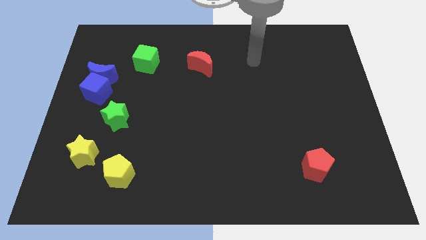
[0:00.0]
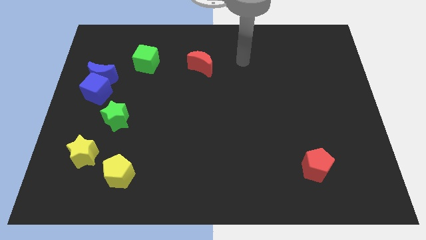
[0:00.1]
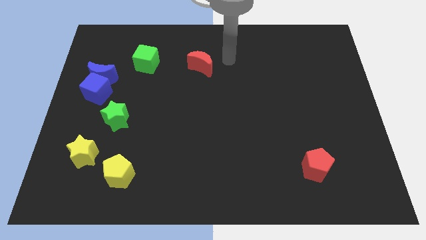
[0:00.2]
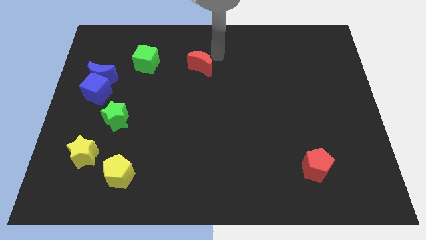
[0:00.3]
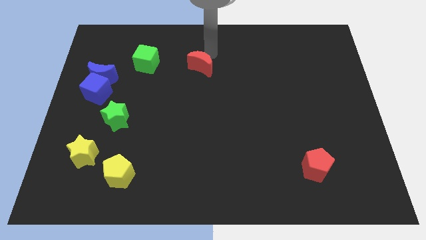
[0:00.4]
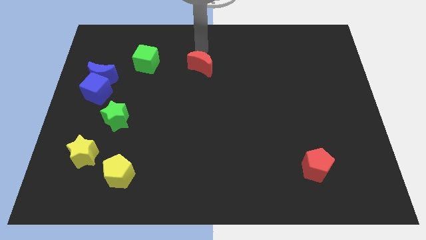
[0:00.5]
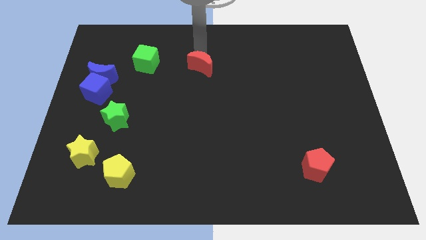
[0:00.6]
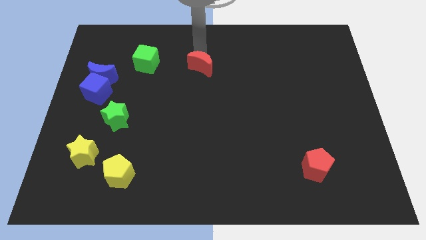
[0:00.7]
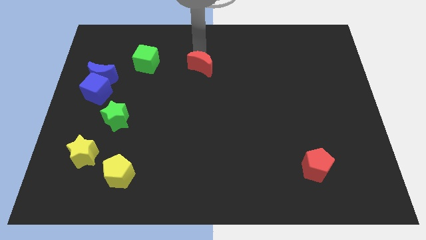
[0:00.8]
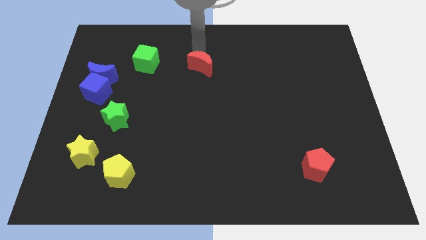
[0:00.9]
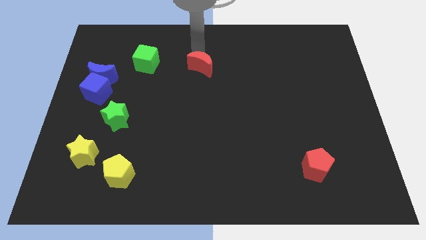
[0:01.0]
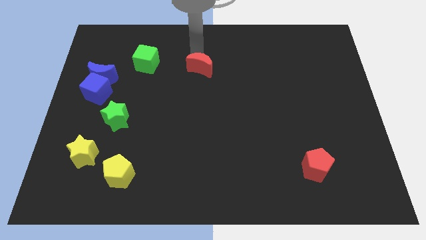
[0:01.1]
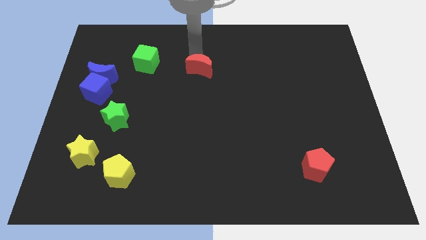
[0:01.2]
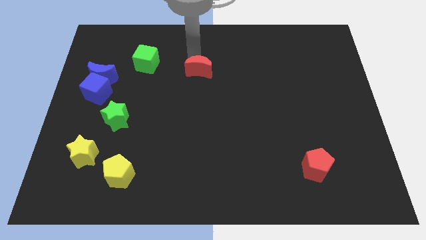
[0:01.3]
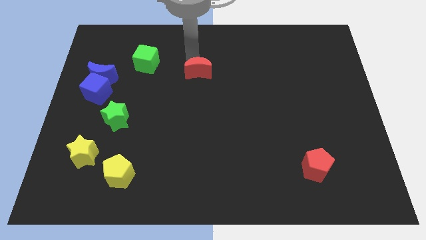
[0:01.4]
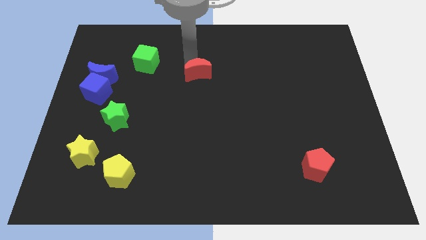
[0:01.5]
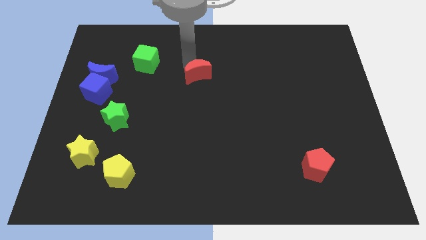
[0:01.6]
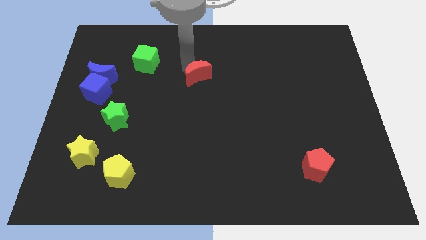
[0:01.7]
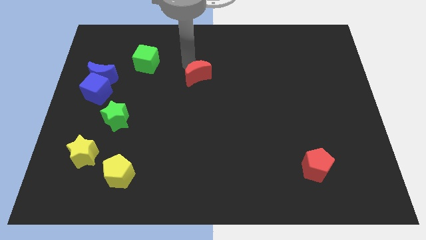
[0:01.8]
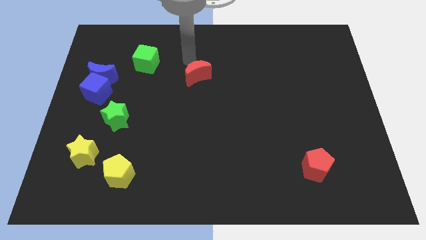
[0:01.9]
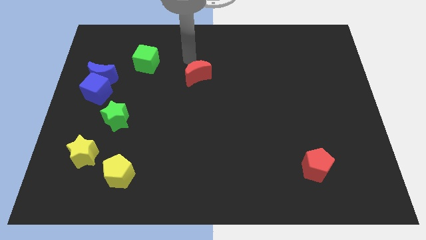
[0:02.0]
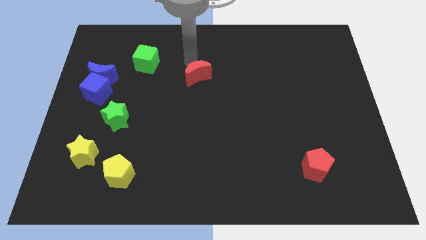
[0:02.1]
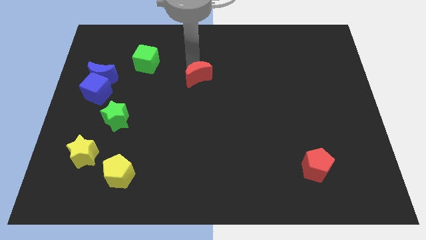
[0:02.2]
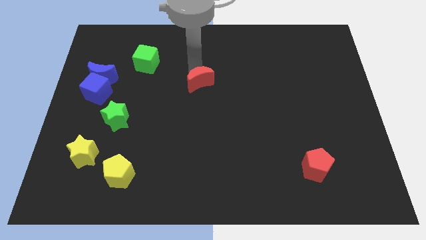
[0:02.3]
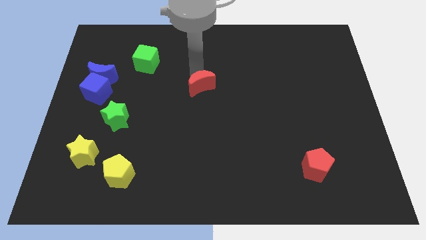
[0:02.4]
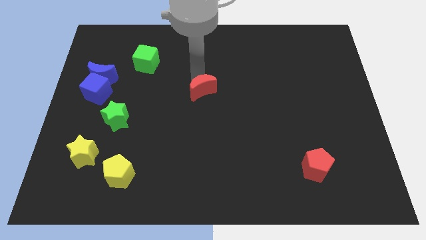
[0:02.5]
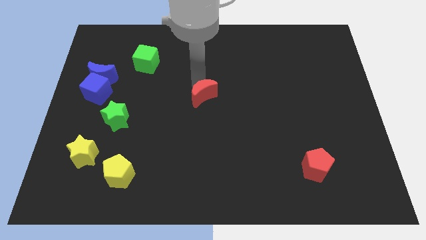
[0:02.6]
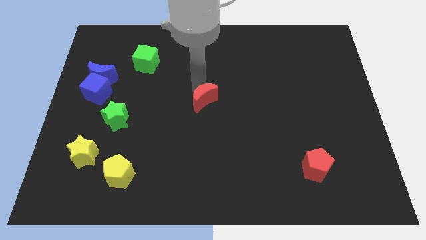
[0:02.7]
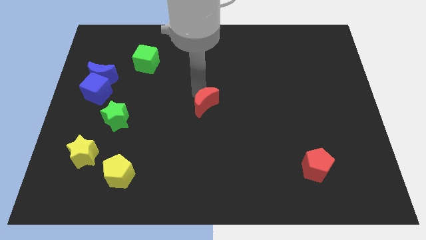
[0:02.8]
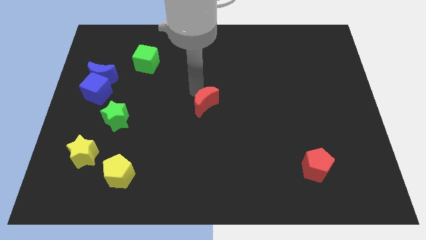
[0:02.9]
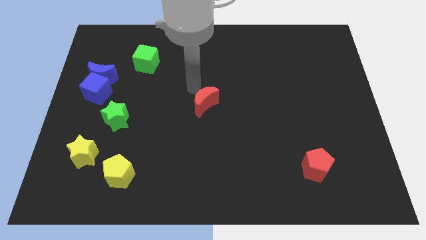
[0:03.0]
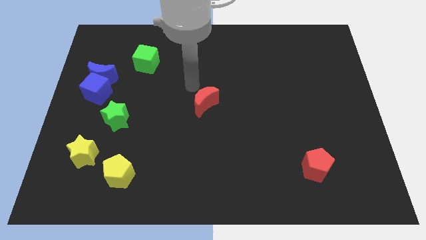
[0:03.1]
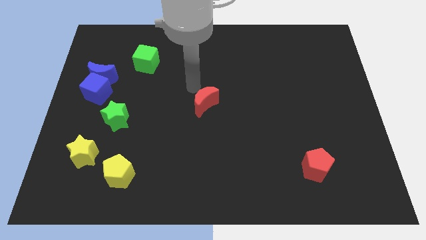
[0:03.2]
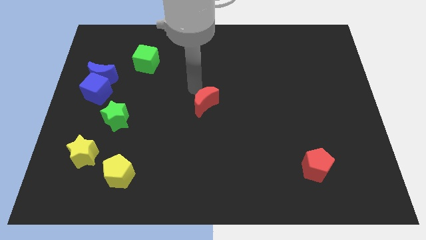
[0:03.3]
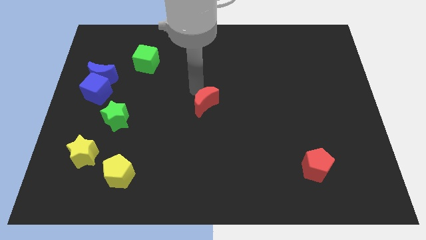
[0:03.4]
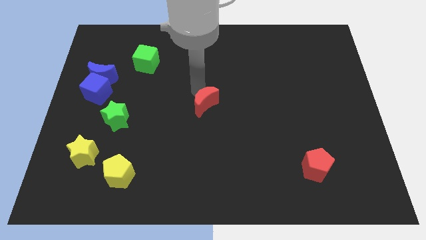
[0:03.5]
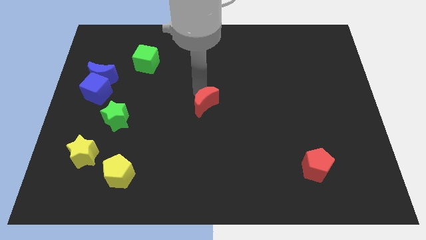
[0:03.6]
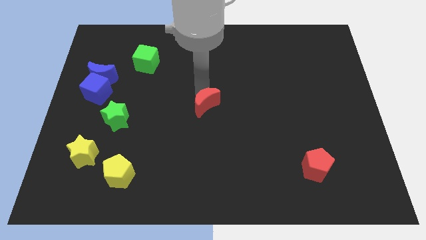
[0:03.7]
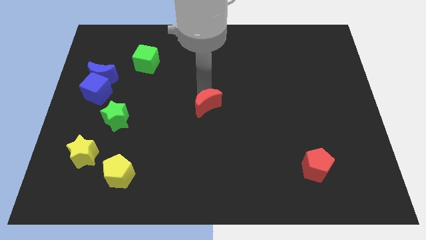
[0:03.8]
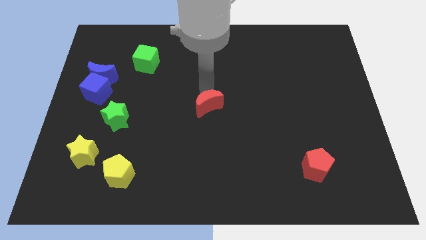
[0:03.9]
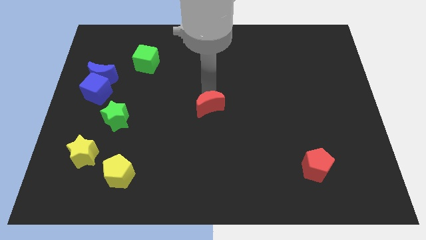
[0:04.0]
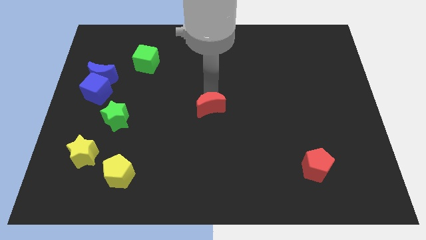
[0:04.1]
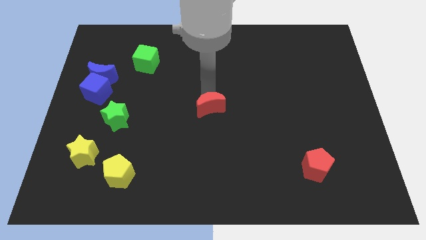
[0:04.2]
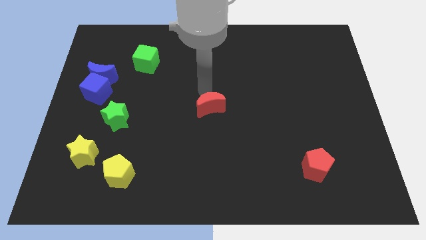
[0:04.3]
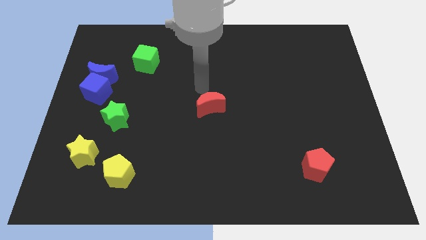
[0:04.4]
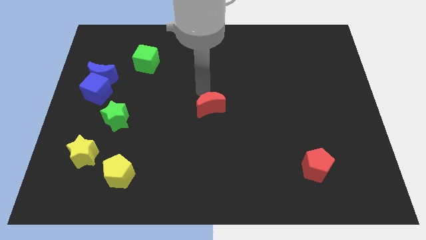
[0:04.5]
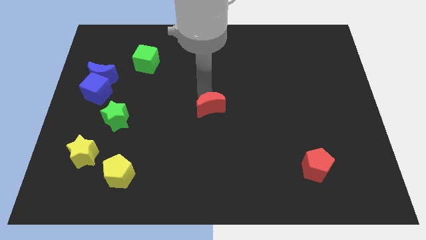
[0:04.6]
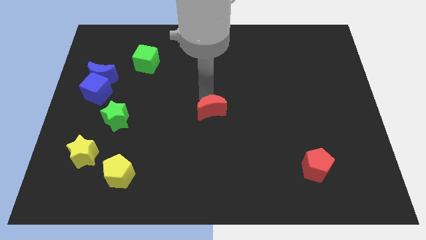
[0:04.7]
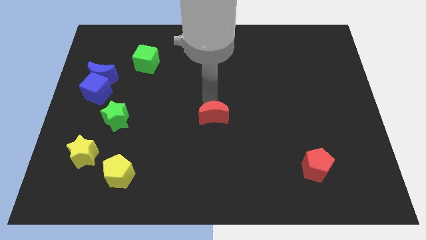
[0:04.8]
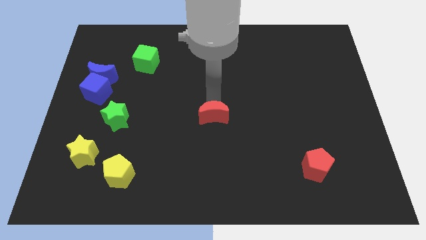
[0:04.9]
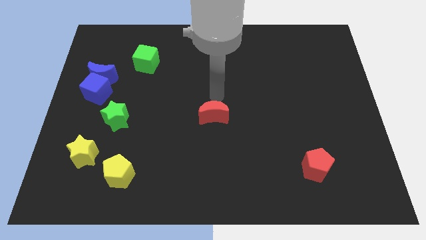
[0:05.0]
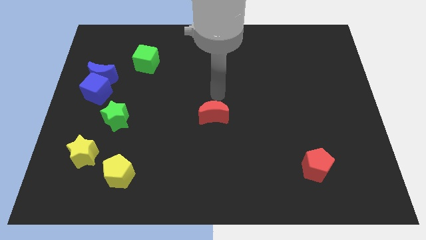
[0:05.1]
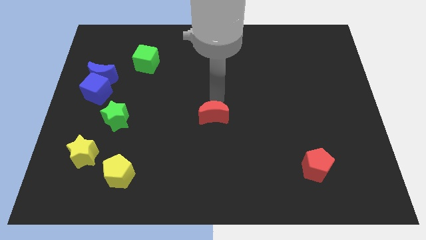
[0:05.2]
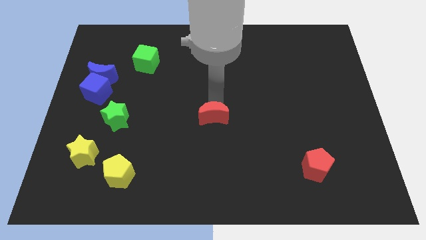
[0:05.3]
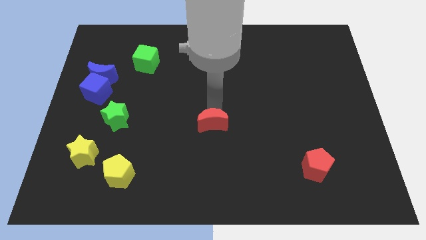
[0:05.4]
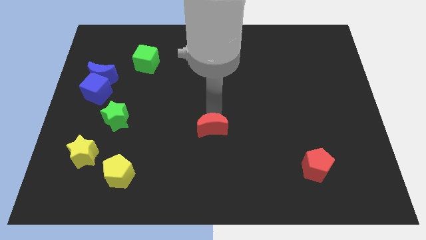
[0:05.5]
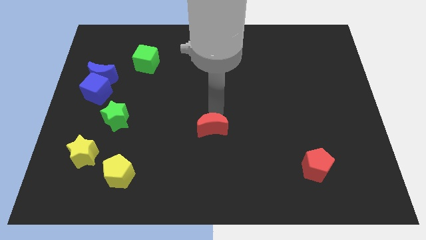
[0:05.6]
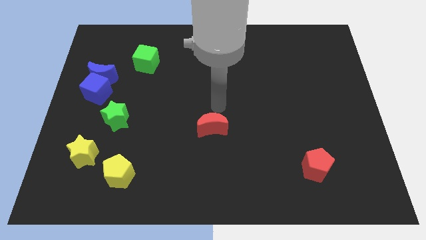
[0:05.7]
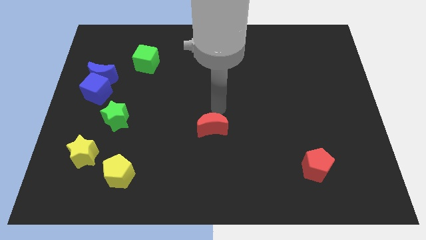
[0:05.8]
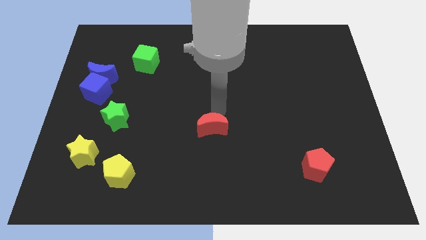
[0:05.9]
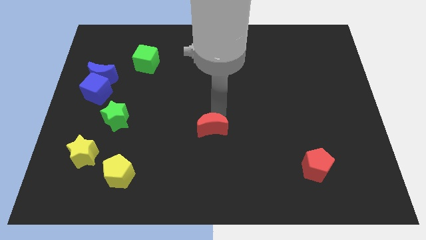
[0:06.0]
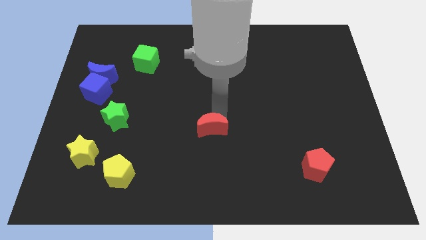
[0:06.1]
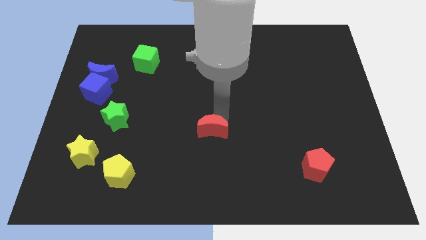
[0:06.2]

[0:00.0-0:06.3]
slide the red moon downwards

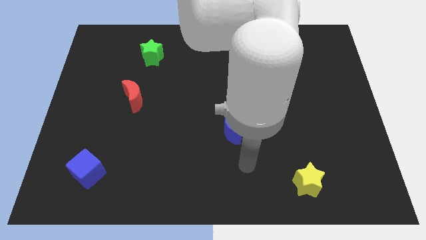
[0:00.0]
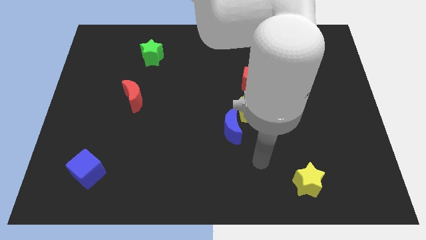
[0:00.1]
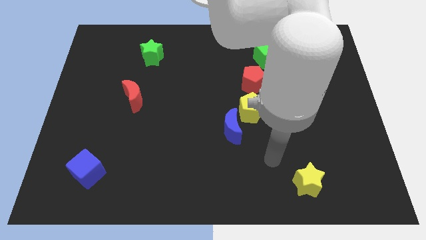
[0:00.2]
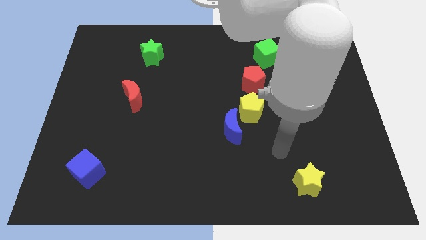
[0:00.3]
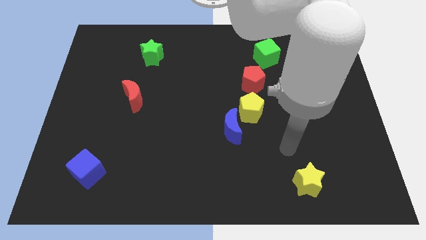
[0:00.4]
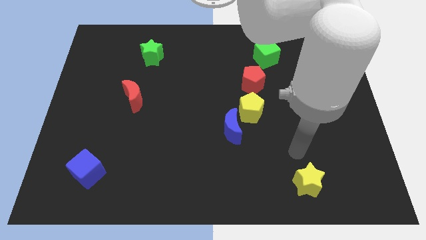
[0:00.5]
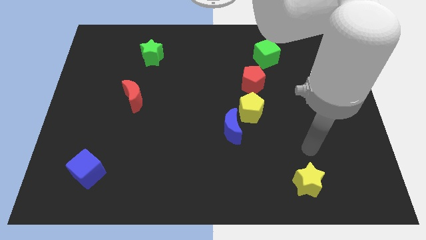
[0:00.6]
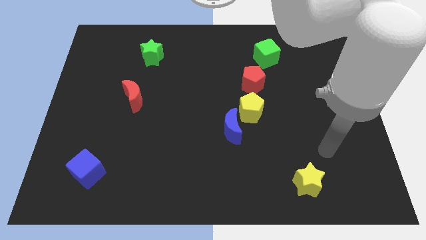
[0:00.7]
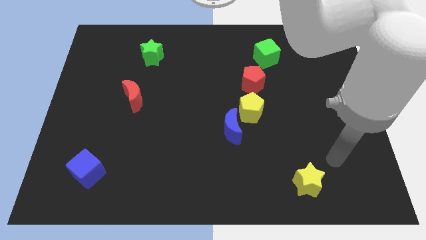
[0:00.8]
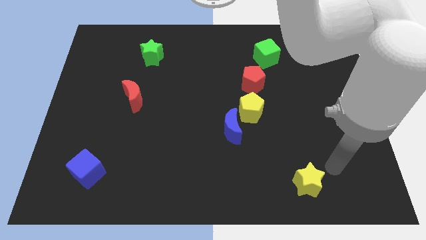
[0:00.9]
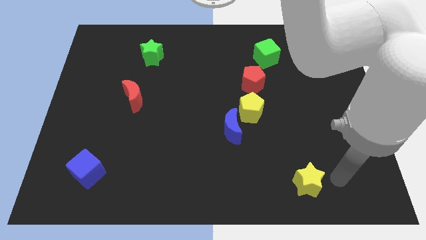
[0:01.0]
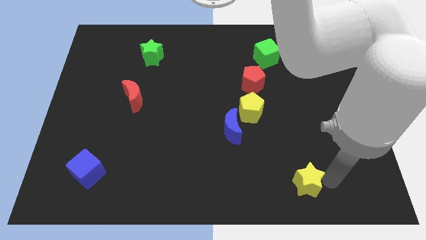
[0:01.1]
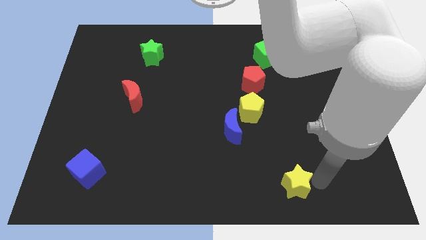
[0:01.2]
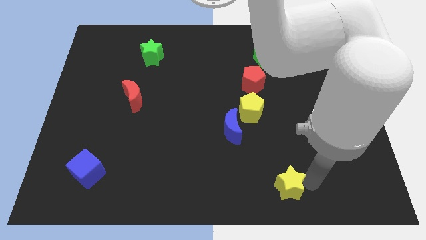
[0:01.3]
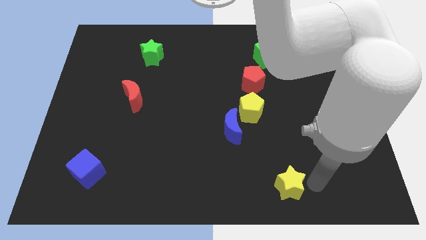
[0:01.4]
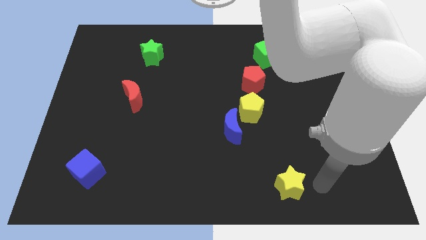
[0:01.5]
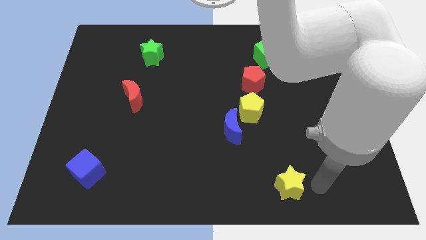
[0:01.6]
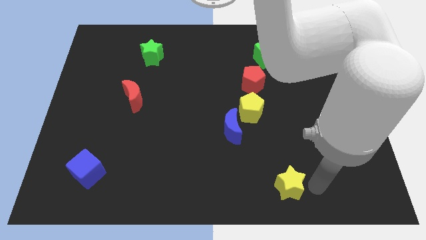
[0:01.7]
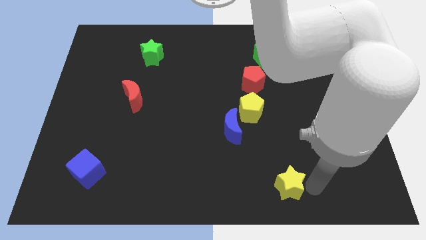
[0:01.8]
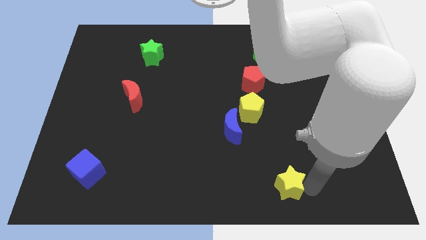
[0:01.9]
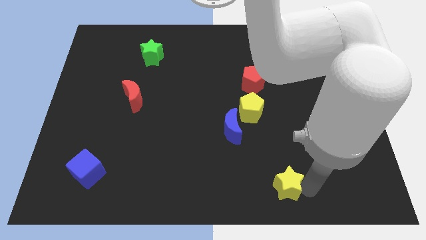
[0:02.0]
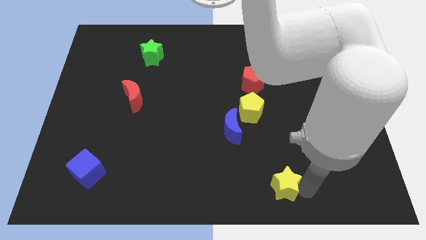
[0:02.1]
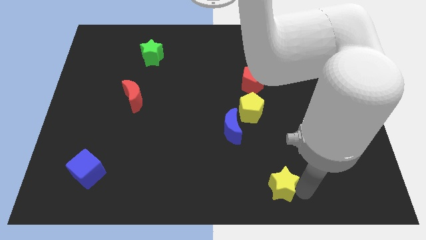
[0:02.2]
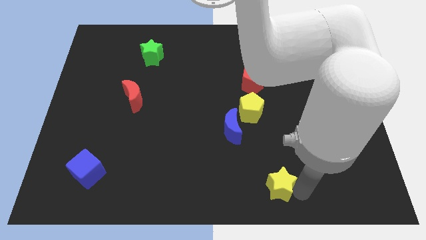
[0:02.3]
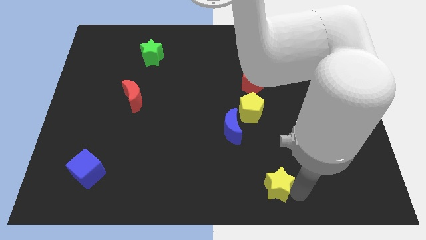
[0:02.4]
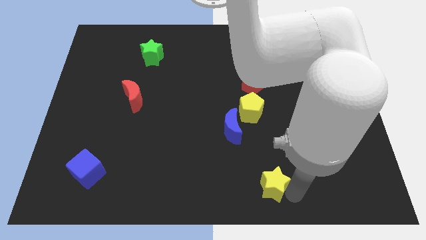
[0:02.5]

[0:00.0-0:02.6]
slide the yellow star to the left slightly
